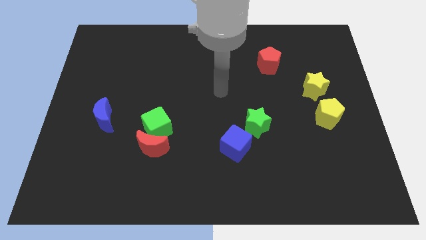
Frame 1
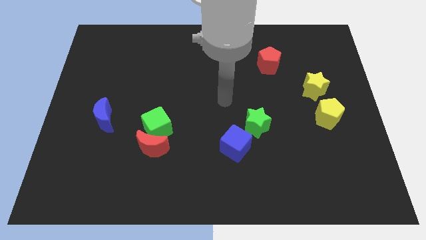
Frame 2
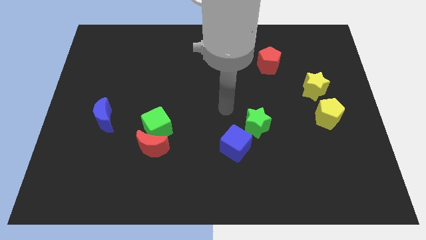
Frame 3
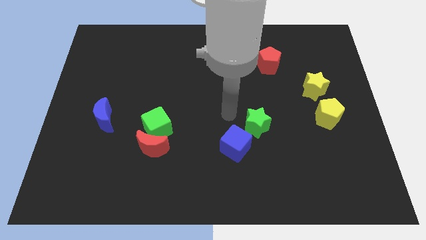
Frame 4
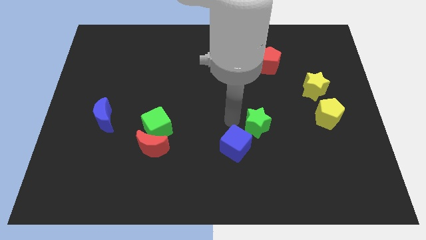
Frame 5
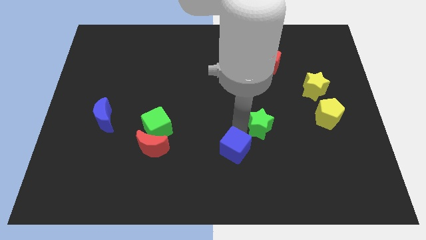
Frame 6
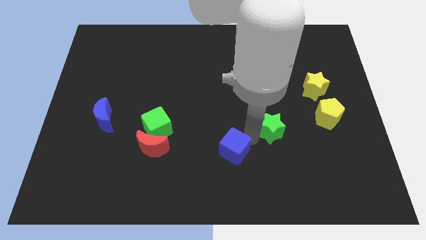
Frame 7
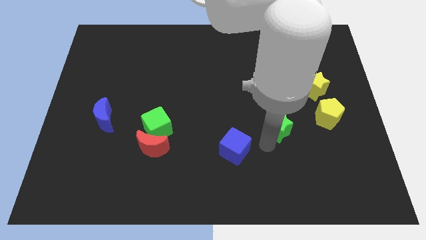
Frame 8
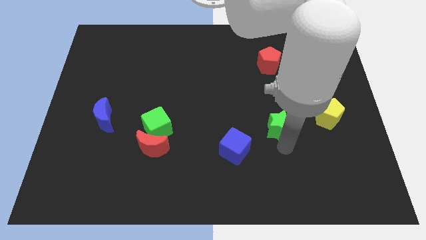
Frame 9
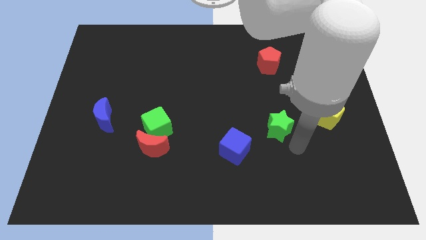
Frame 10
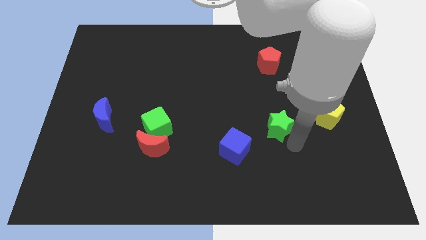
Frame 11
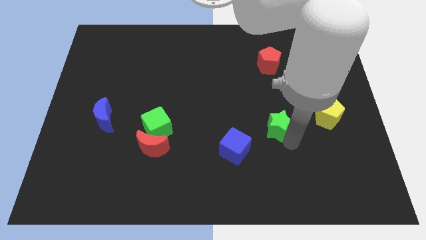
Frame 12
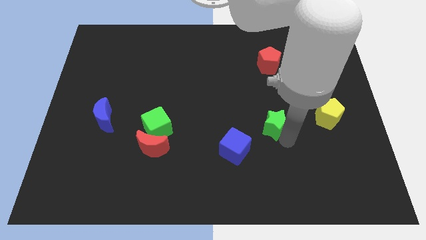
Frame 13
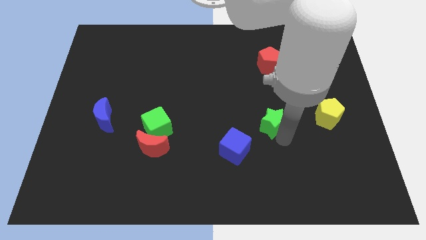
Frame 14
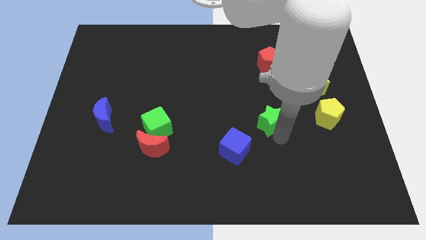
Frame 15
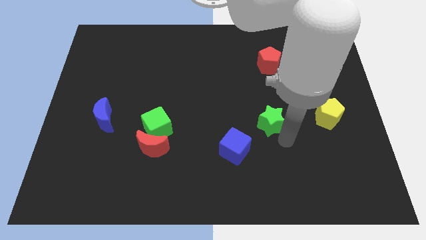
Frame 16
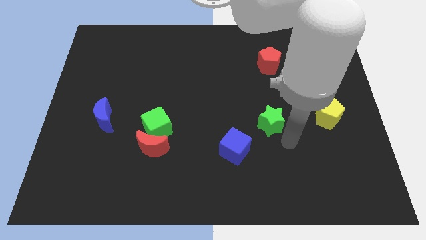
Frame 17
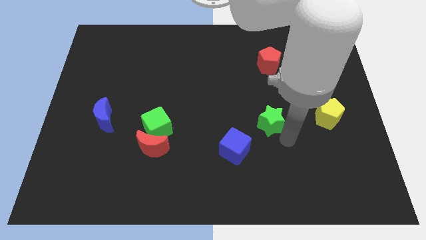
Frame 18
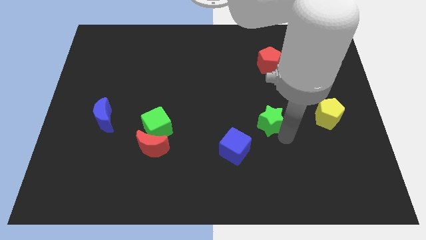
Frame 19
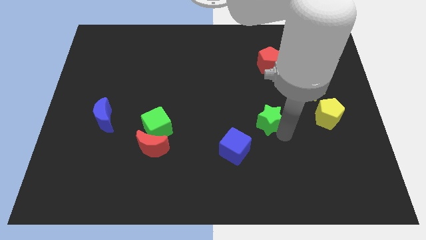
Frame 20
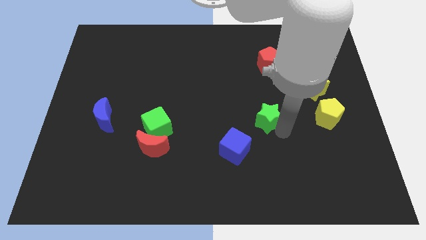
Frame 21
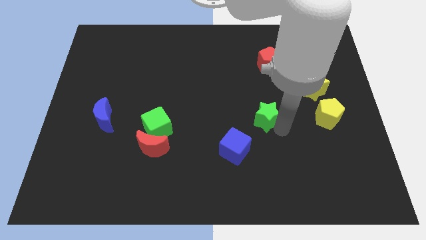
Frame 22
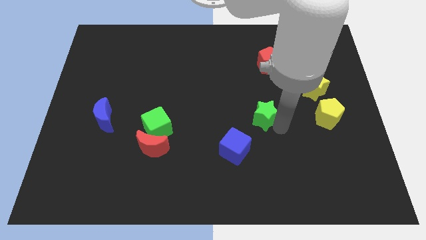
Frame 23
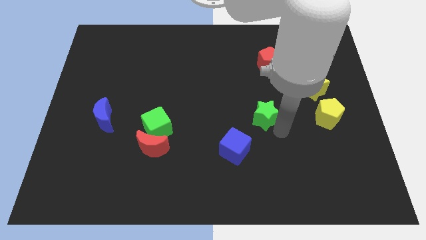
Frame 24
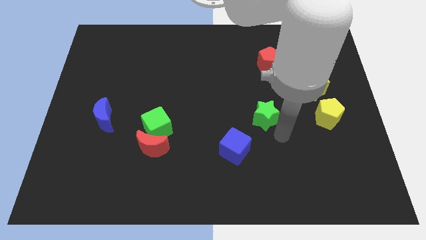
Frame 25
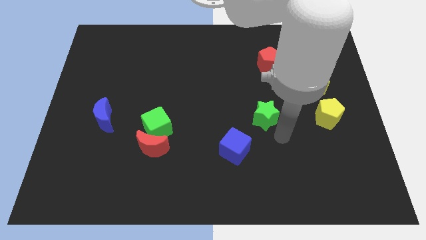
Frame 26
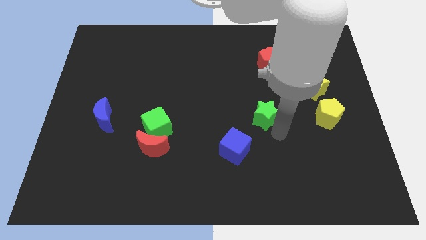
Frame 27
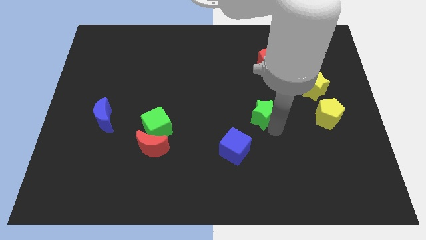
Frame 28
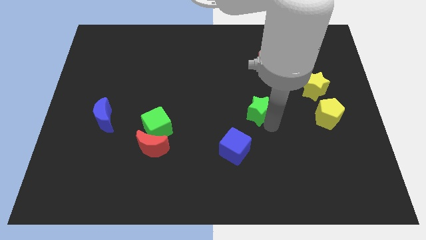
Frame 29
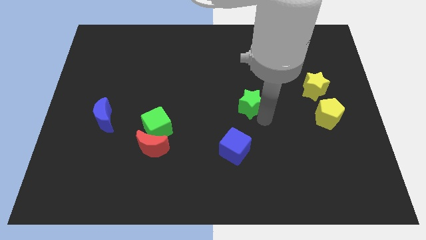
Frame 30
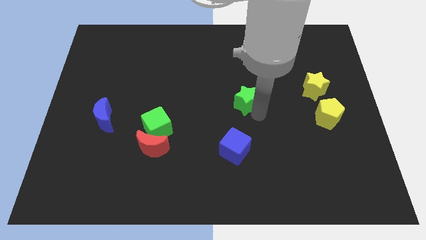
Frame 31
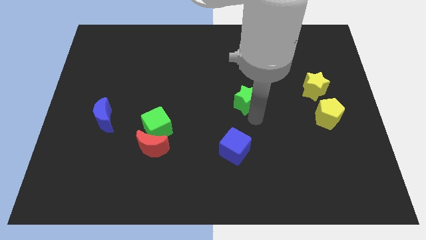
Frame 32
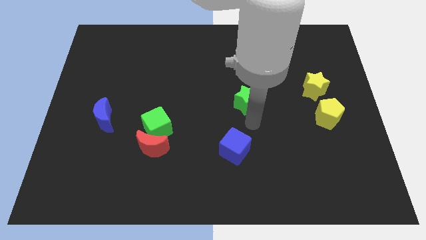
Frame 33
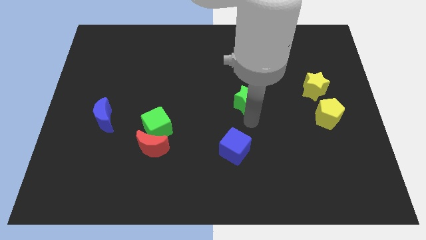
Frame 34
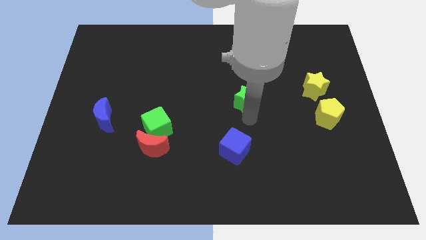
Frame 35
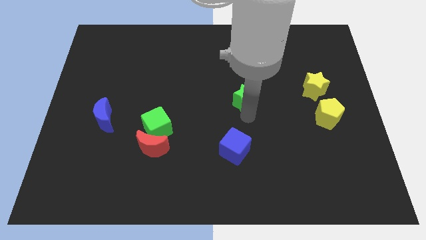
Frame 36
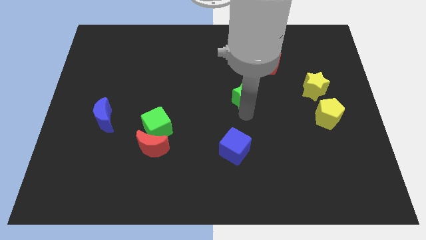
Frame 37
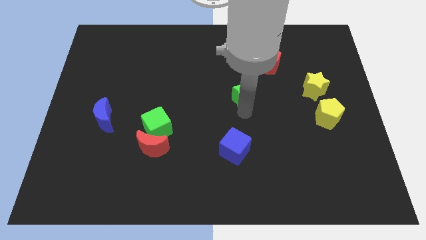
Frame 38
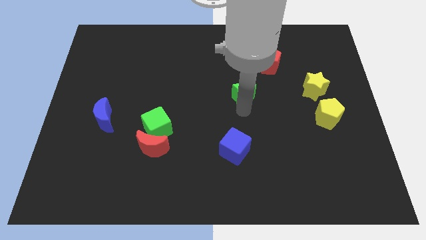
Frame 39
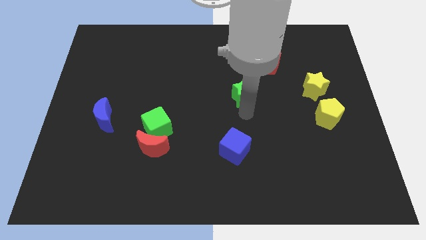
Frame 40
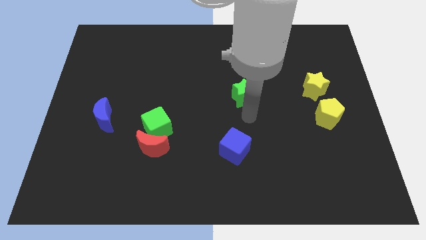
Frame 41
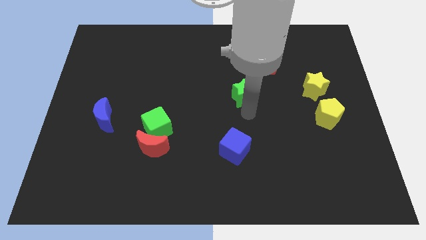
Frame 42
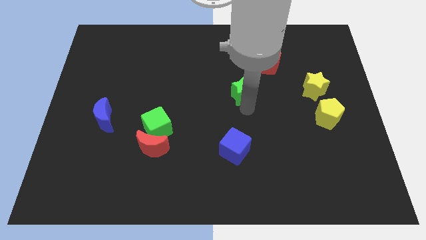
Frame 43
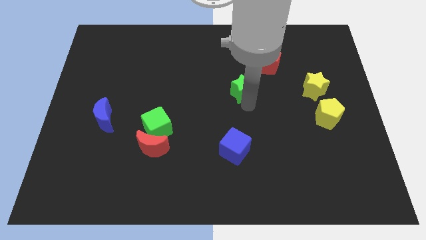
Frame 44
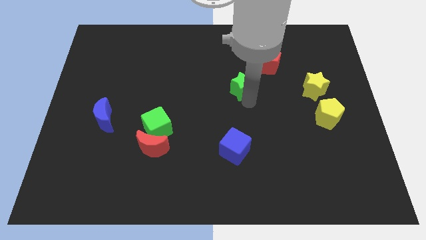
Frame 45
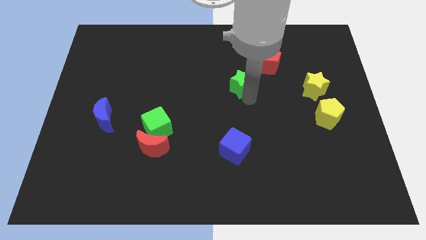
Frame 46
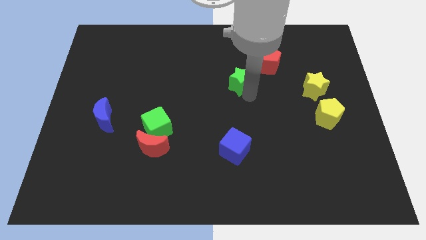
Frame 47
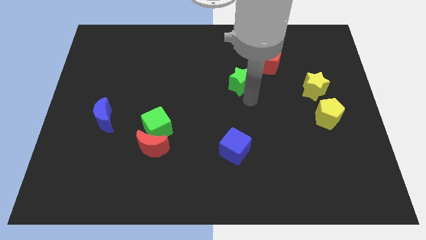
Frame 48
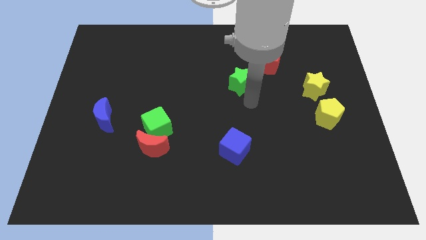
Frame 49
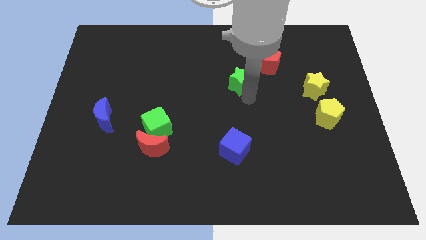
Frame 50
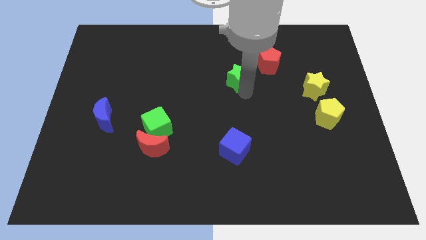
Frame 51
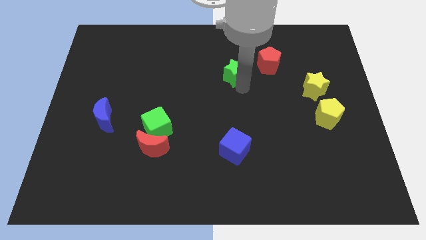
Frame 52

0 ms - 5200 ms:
put the green star just left of the red pentagon

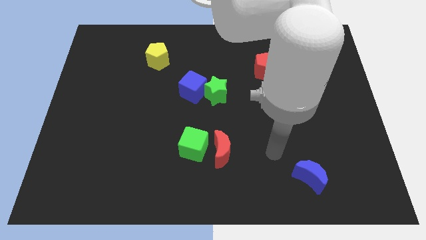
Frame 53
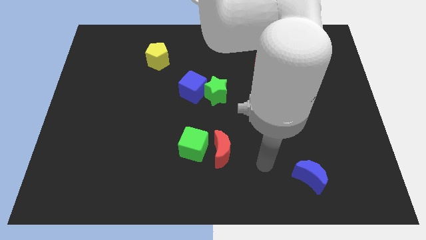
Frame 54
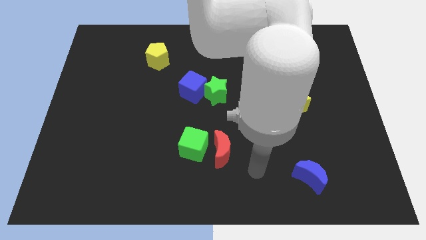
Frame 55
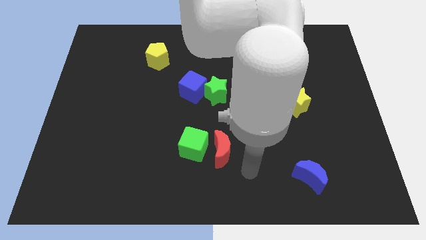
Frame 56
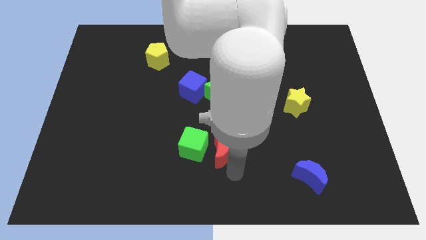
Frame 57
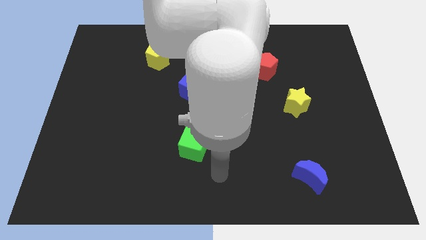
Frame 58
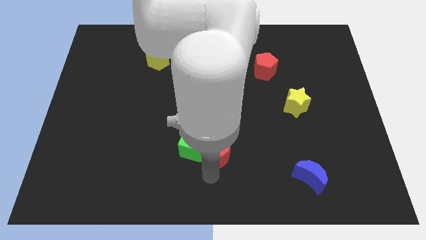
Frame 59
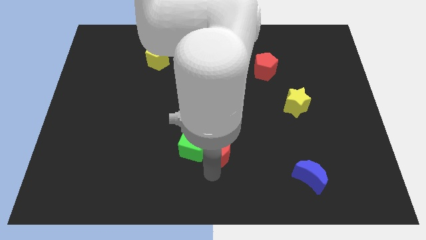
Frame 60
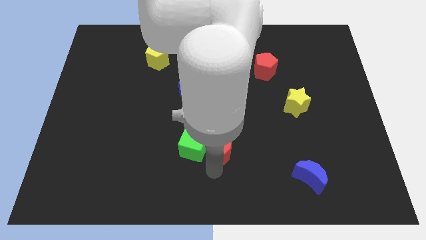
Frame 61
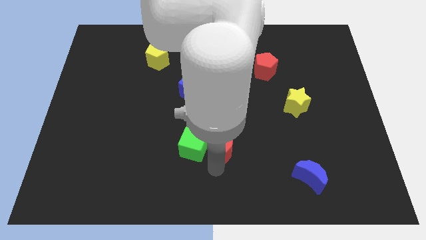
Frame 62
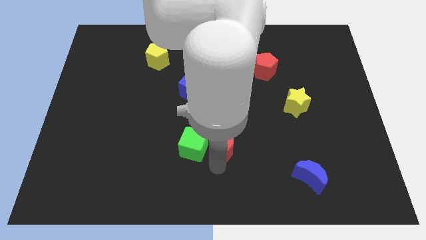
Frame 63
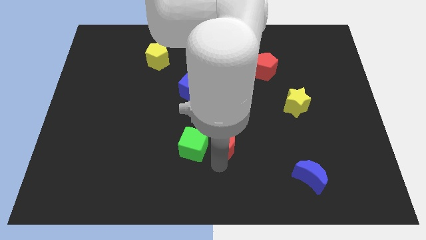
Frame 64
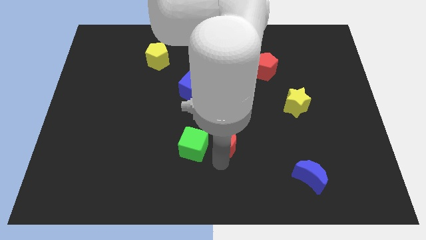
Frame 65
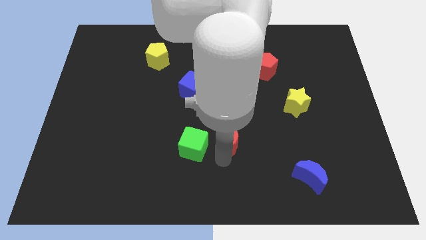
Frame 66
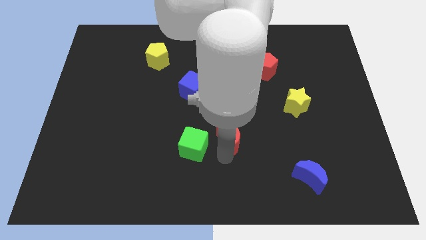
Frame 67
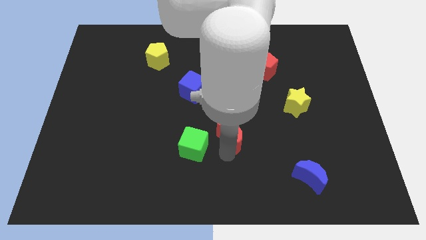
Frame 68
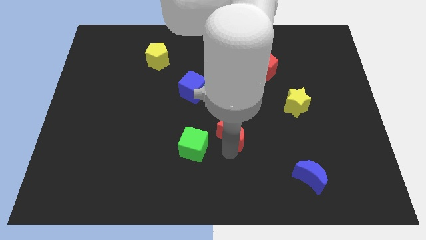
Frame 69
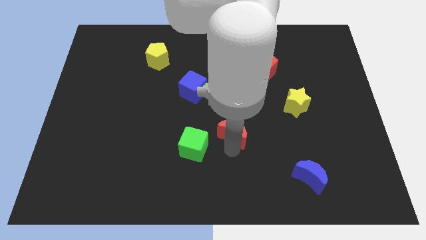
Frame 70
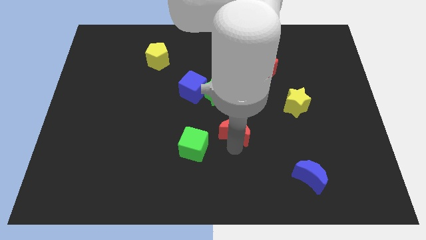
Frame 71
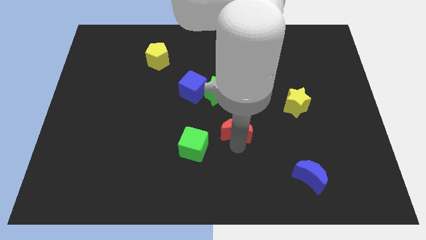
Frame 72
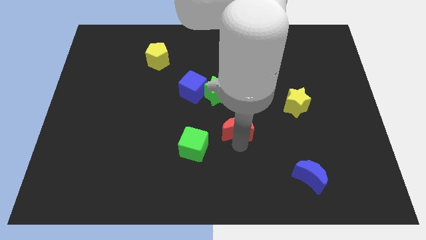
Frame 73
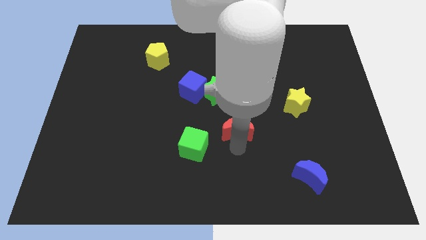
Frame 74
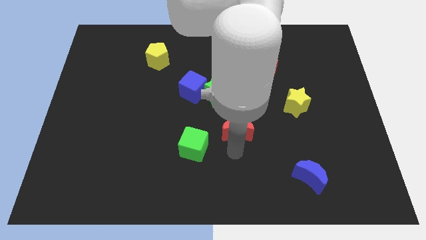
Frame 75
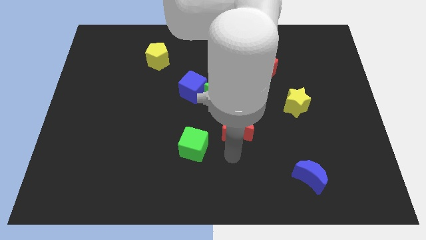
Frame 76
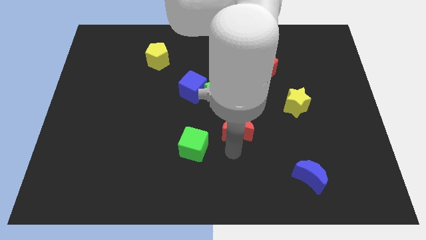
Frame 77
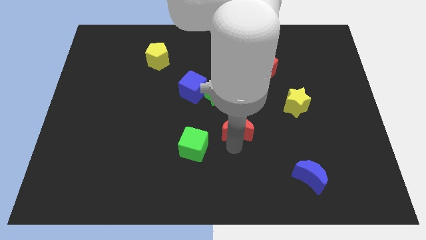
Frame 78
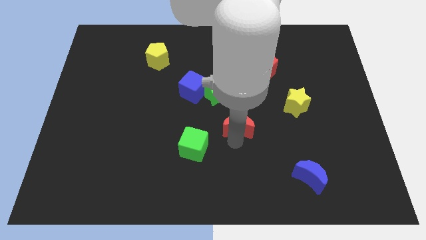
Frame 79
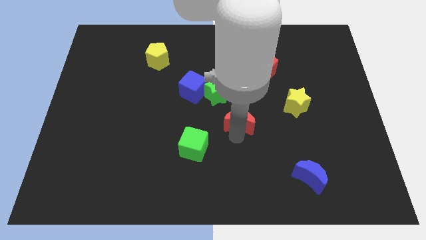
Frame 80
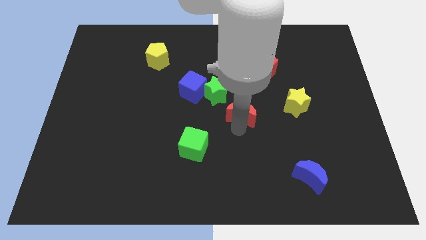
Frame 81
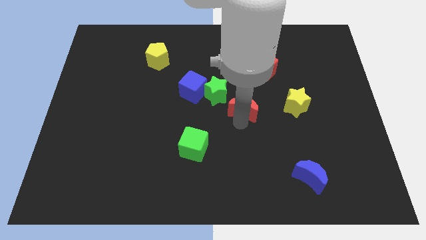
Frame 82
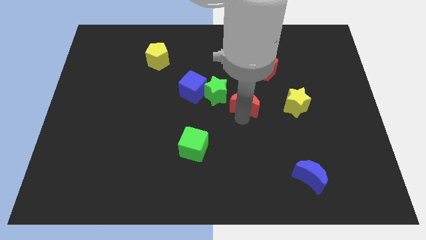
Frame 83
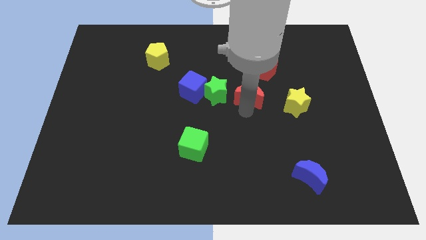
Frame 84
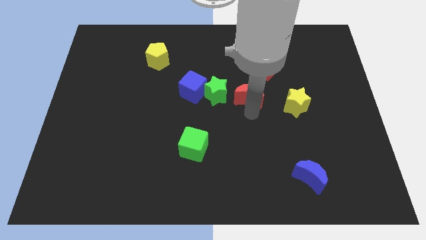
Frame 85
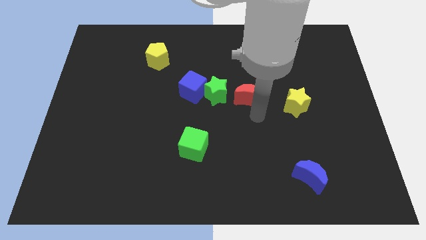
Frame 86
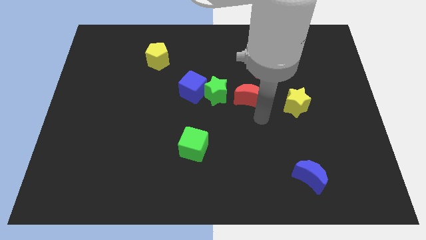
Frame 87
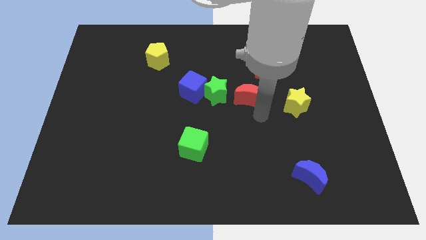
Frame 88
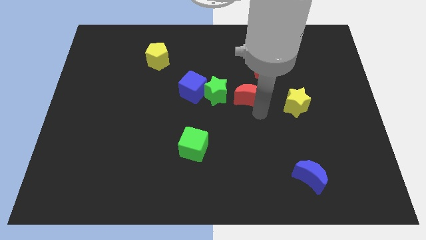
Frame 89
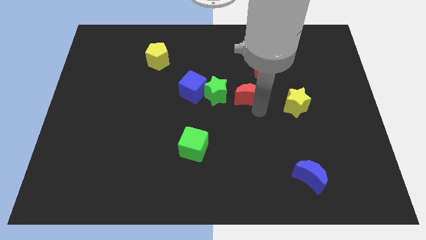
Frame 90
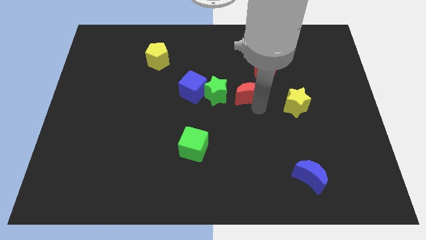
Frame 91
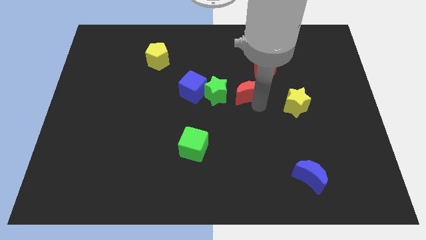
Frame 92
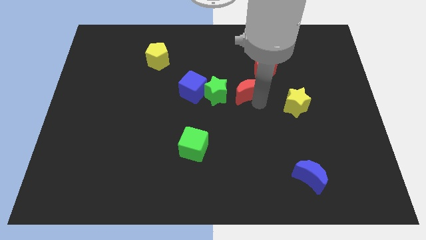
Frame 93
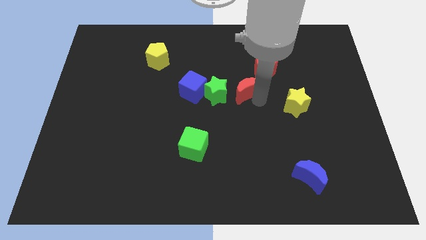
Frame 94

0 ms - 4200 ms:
push the red moon diagonally up and to the right of the green star
